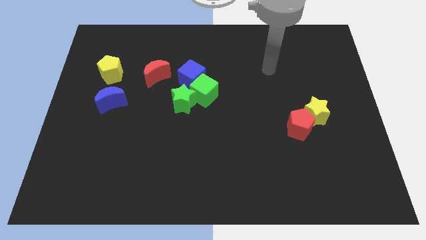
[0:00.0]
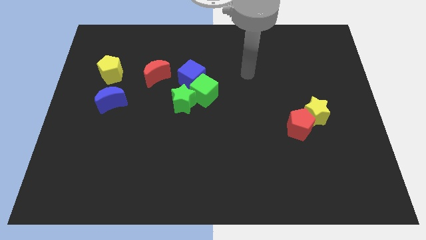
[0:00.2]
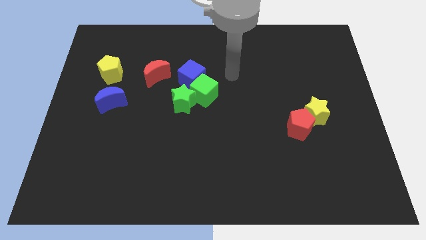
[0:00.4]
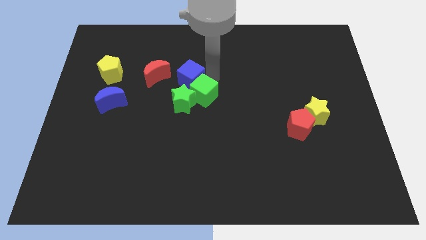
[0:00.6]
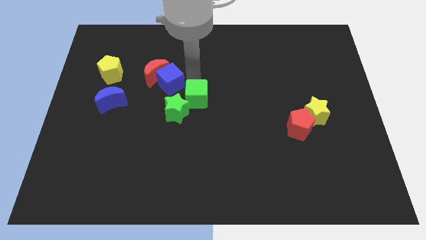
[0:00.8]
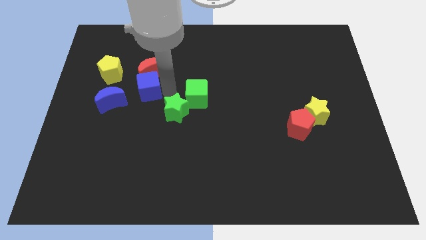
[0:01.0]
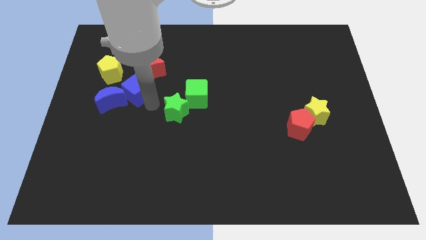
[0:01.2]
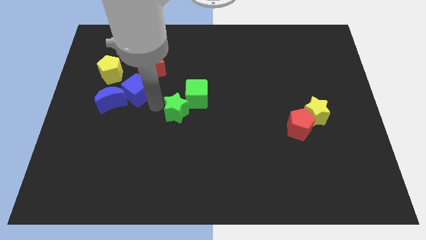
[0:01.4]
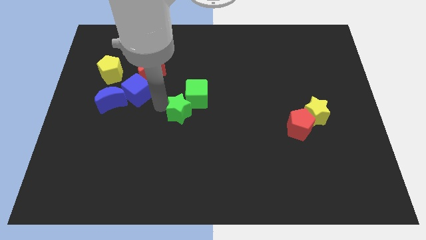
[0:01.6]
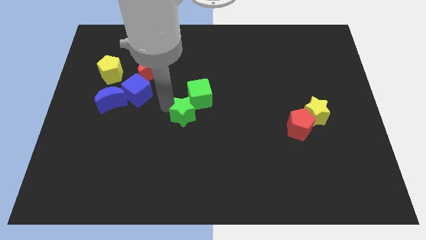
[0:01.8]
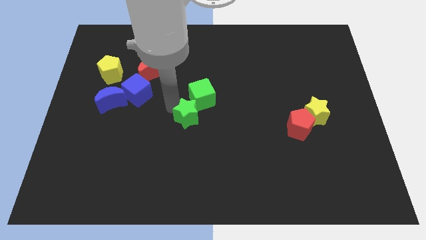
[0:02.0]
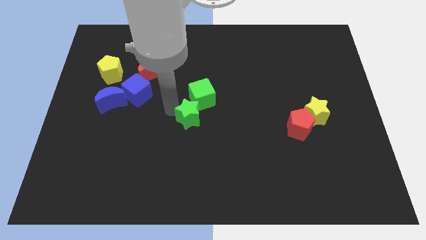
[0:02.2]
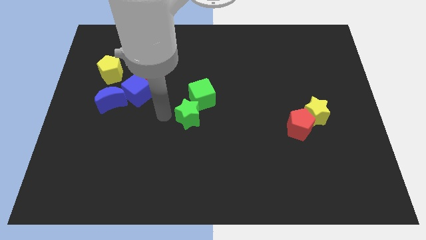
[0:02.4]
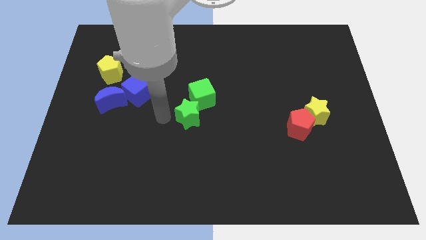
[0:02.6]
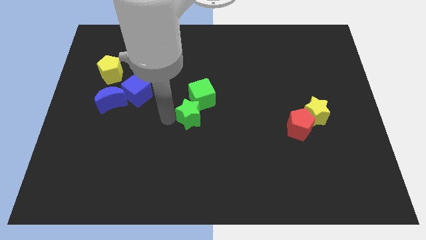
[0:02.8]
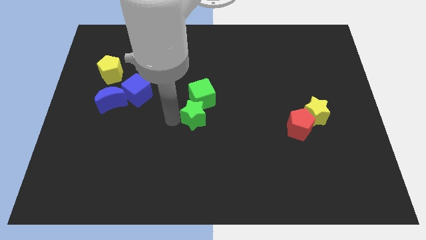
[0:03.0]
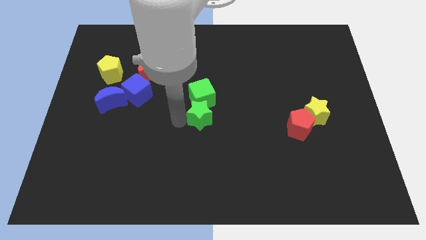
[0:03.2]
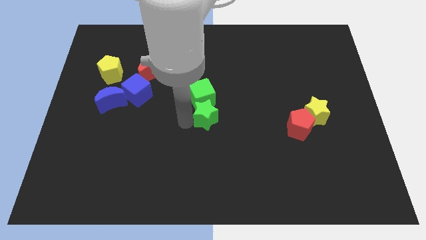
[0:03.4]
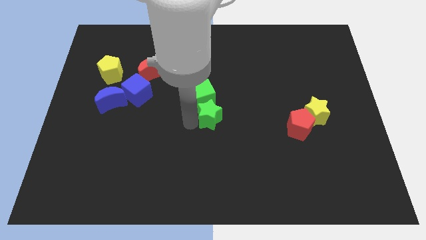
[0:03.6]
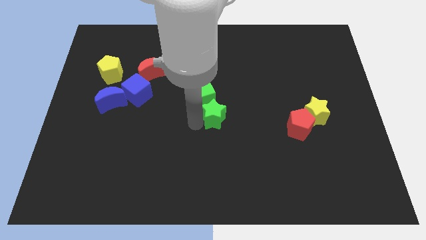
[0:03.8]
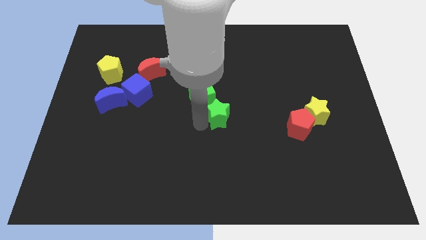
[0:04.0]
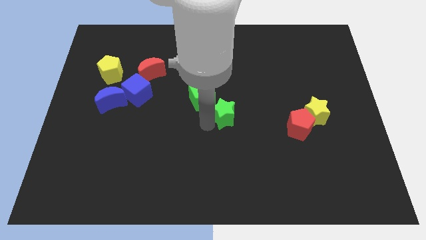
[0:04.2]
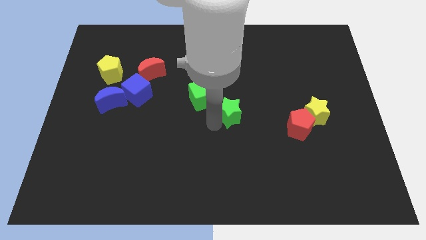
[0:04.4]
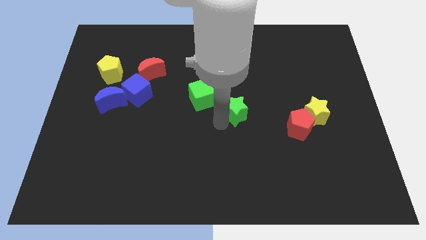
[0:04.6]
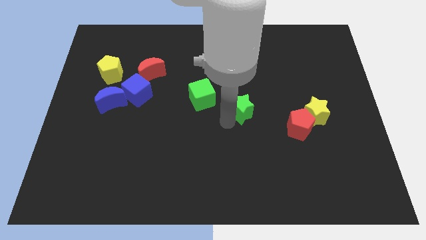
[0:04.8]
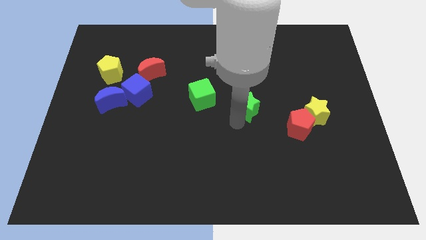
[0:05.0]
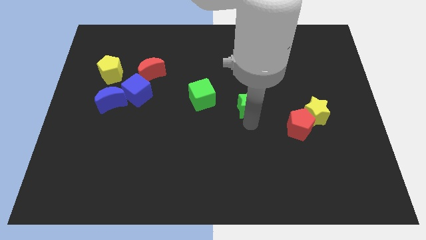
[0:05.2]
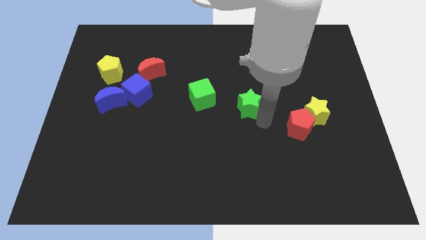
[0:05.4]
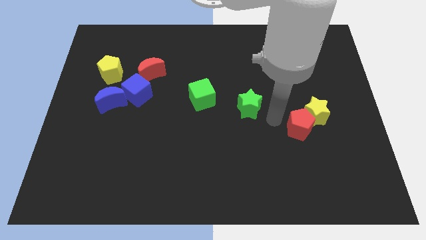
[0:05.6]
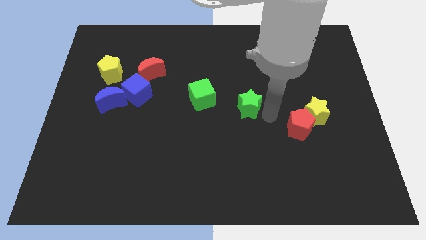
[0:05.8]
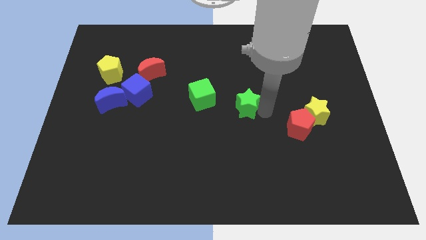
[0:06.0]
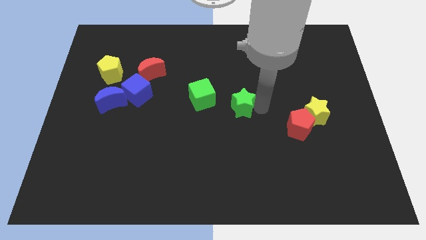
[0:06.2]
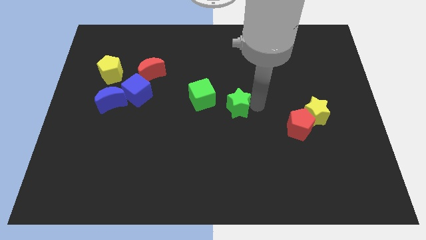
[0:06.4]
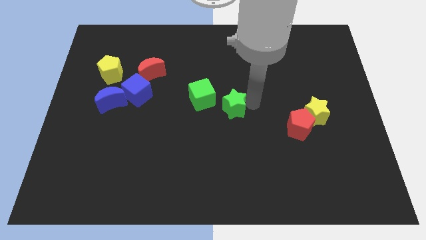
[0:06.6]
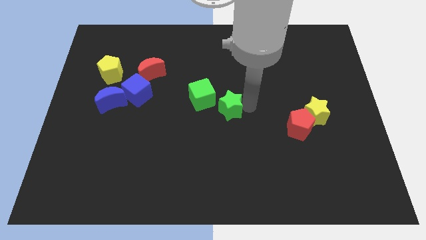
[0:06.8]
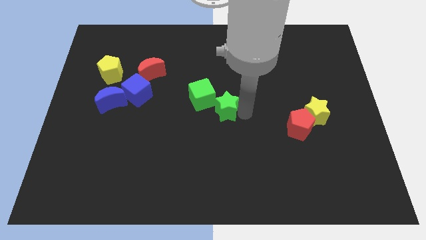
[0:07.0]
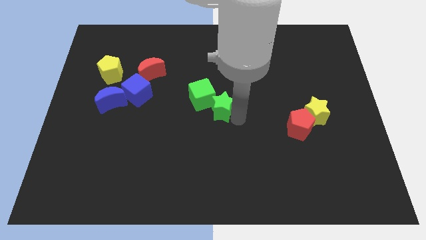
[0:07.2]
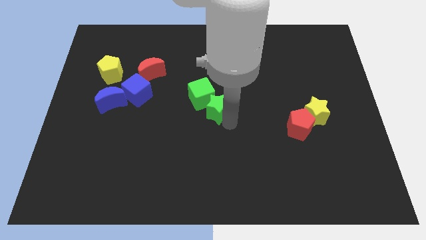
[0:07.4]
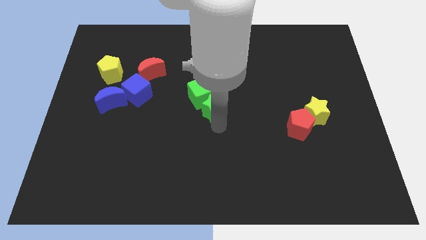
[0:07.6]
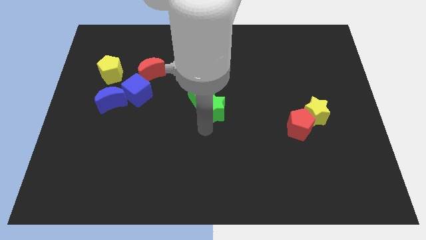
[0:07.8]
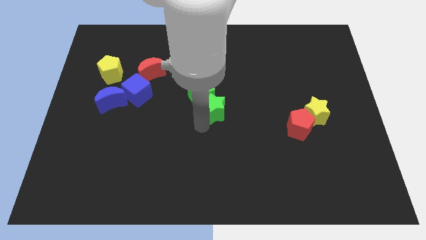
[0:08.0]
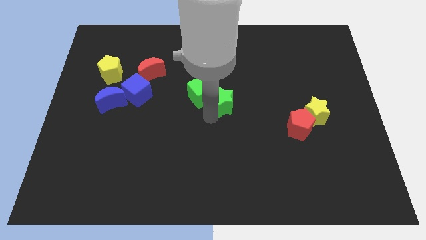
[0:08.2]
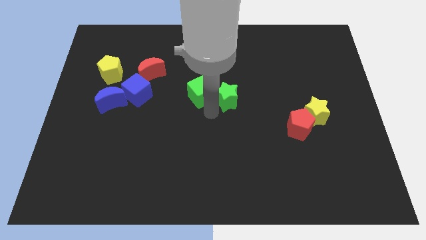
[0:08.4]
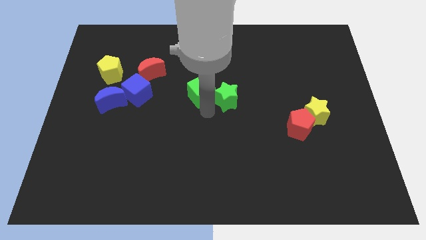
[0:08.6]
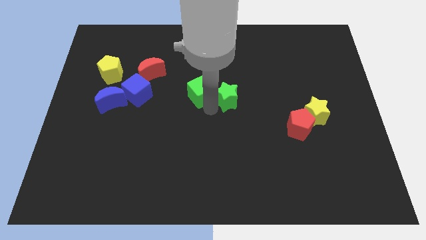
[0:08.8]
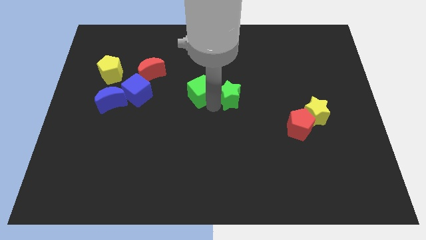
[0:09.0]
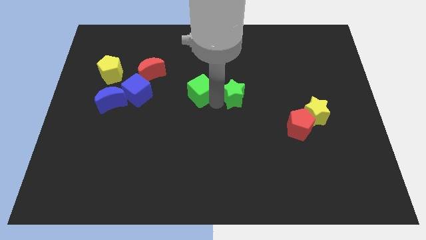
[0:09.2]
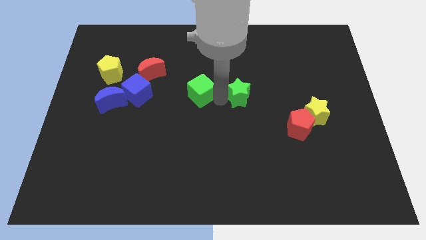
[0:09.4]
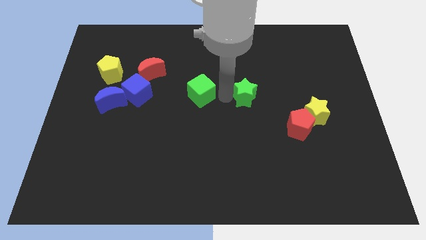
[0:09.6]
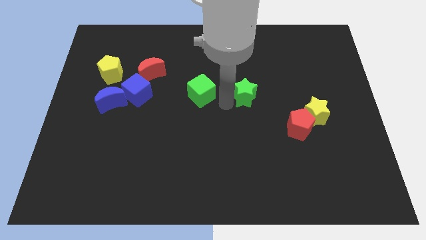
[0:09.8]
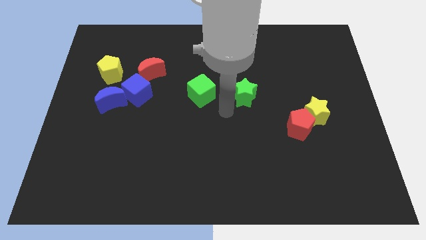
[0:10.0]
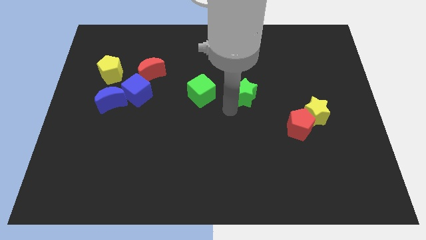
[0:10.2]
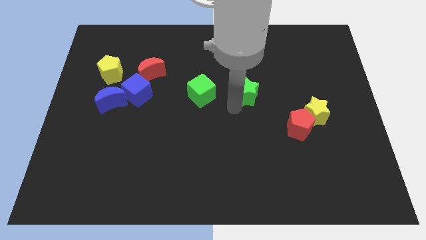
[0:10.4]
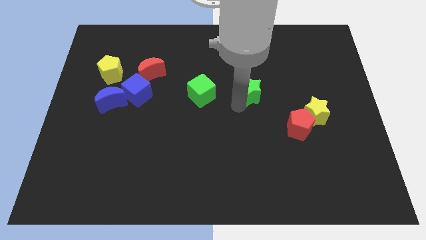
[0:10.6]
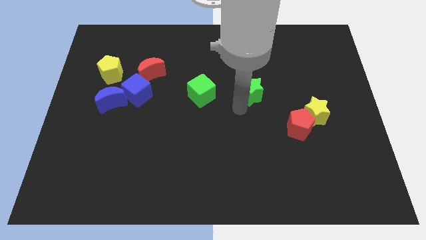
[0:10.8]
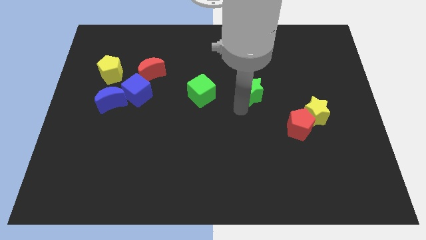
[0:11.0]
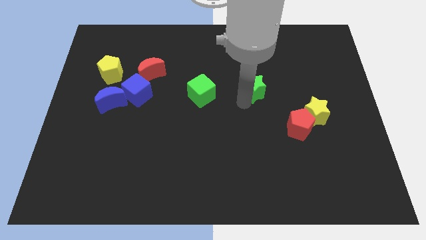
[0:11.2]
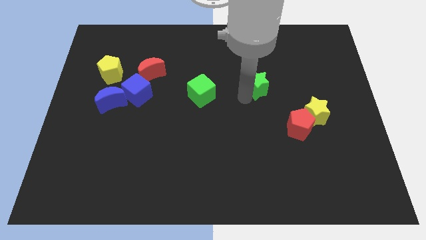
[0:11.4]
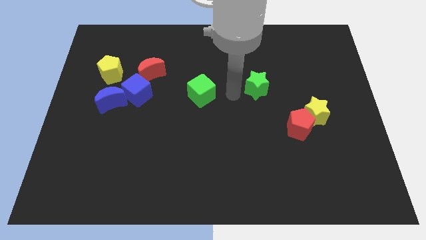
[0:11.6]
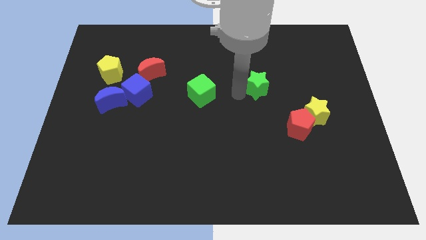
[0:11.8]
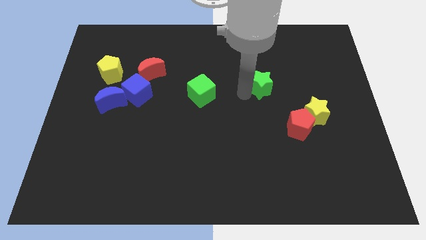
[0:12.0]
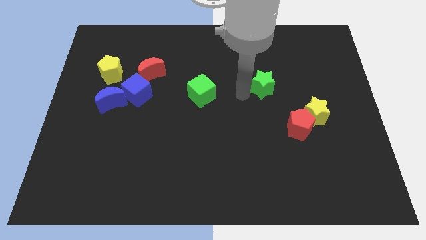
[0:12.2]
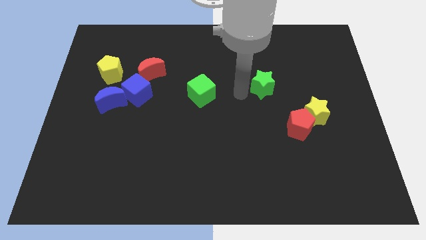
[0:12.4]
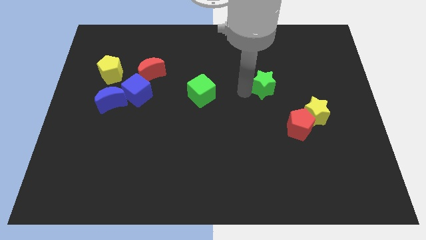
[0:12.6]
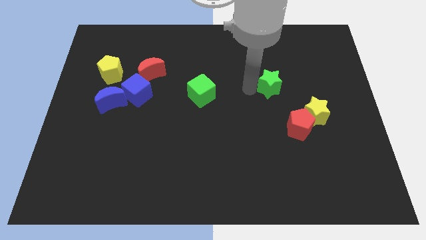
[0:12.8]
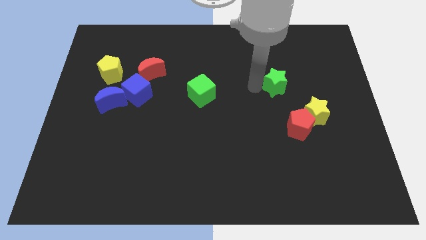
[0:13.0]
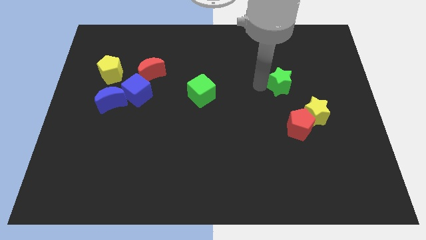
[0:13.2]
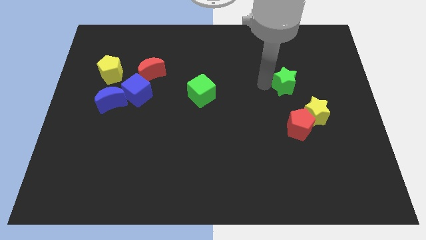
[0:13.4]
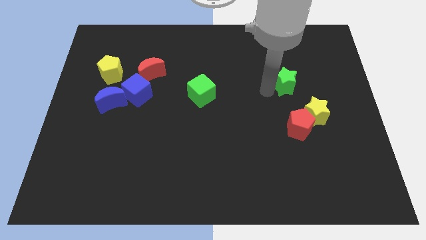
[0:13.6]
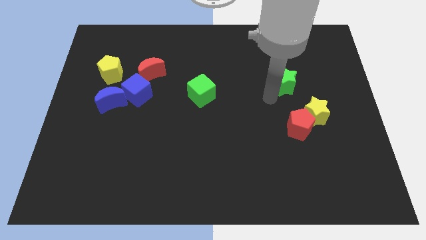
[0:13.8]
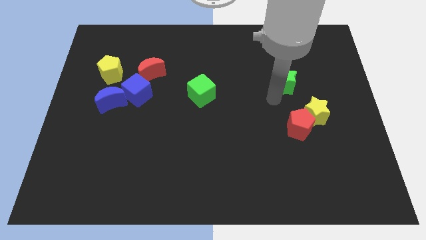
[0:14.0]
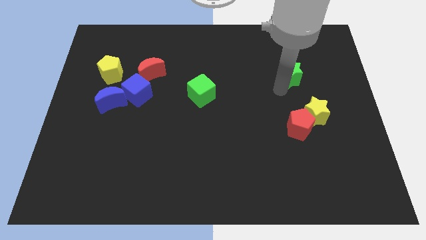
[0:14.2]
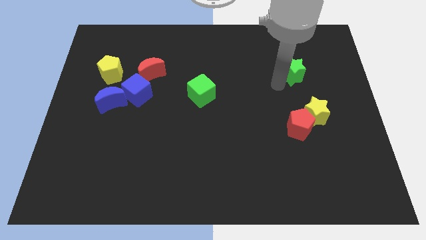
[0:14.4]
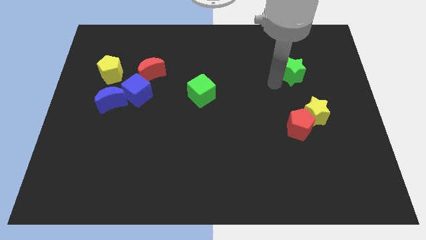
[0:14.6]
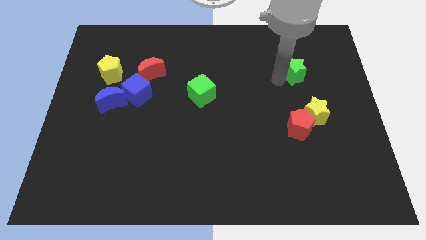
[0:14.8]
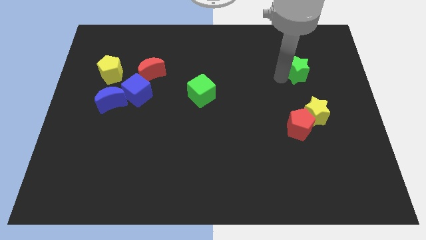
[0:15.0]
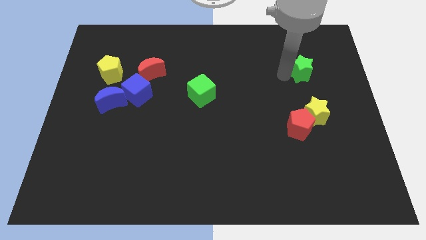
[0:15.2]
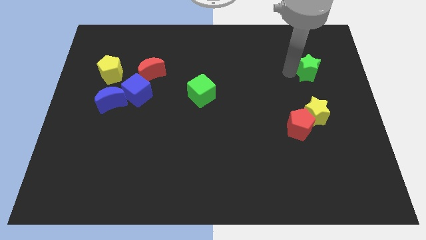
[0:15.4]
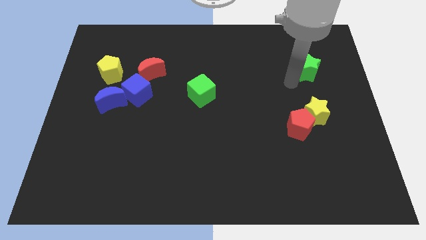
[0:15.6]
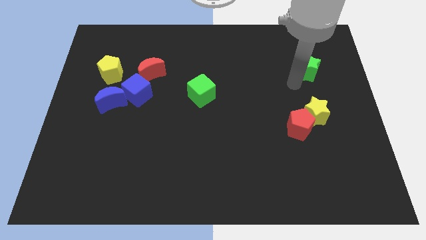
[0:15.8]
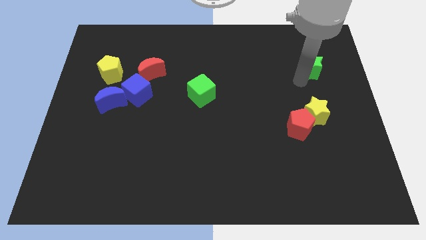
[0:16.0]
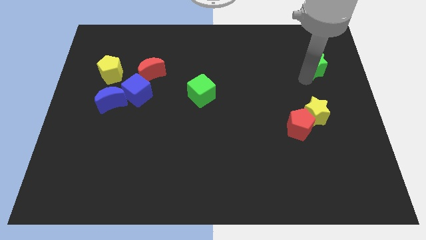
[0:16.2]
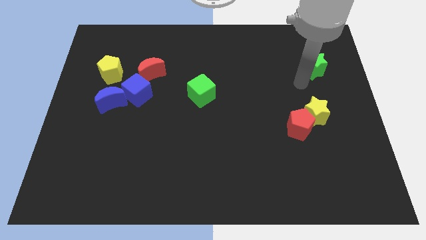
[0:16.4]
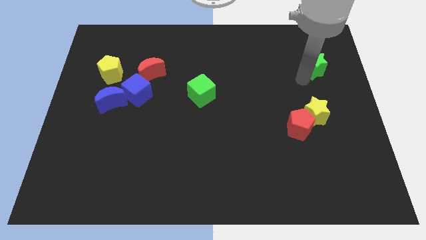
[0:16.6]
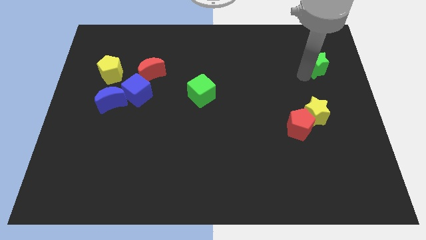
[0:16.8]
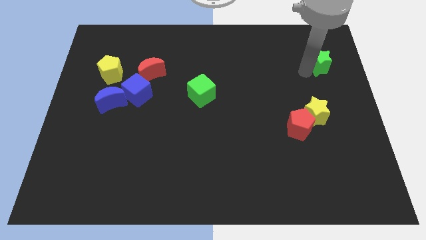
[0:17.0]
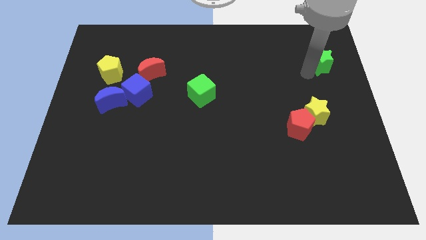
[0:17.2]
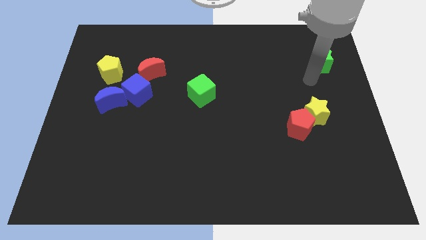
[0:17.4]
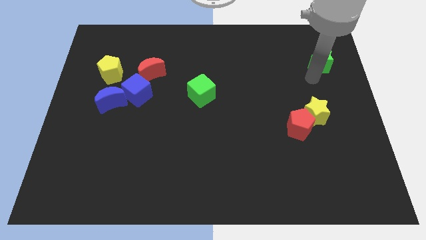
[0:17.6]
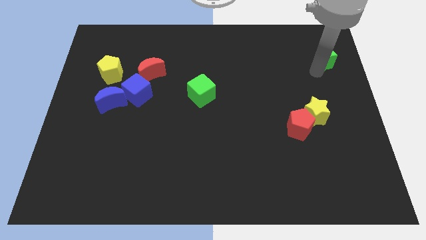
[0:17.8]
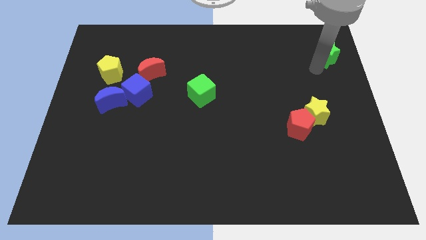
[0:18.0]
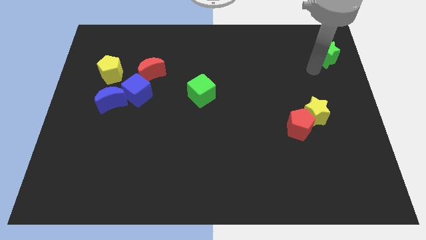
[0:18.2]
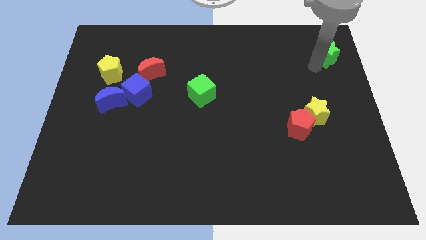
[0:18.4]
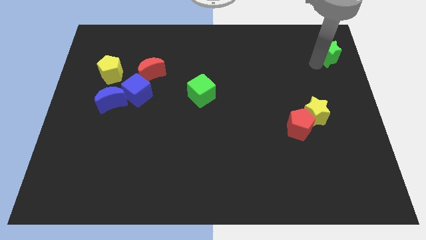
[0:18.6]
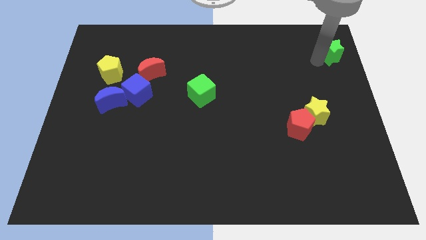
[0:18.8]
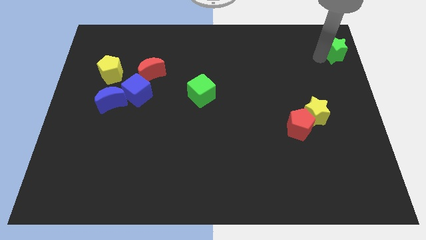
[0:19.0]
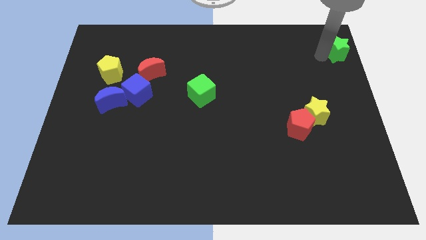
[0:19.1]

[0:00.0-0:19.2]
slide the green star to the top right corner
